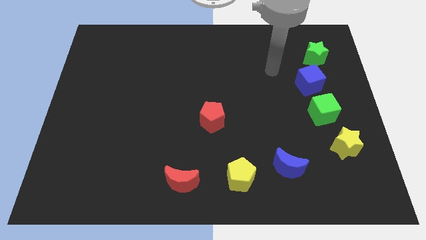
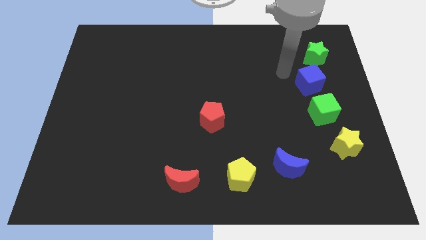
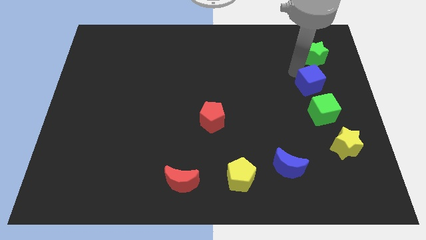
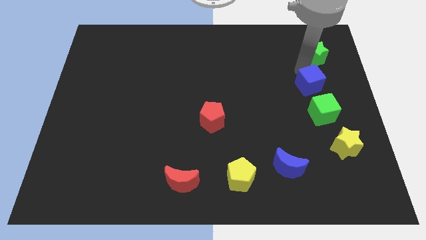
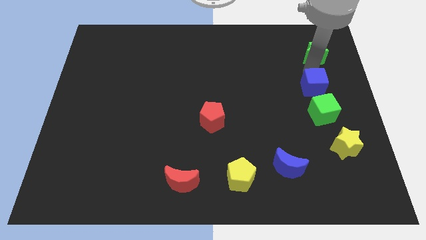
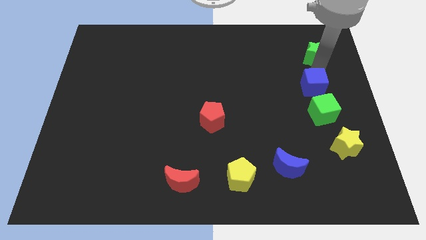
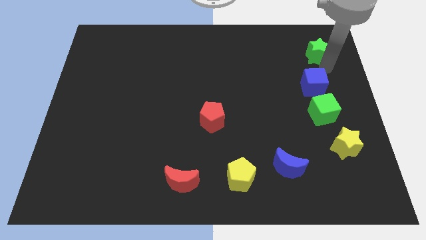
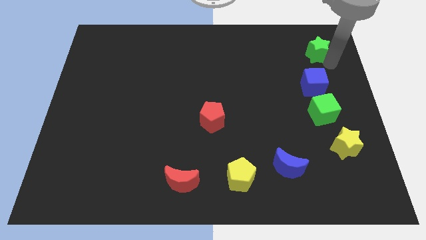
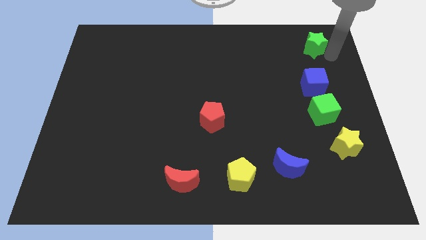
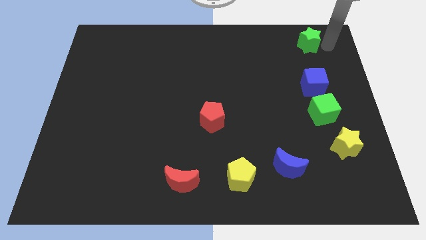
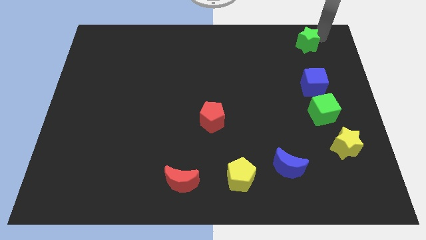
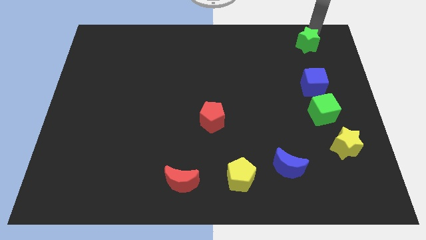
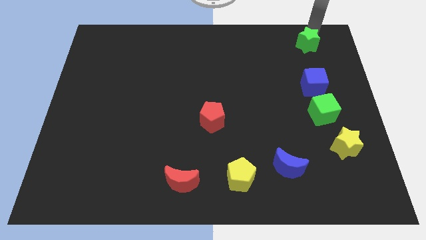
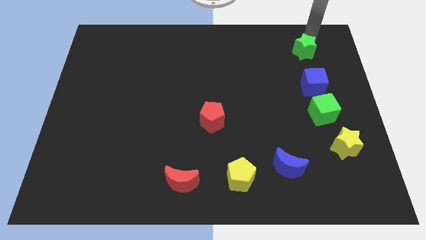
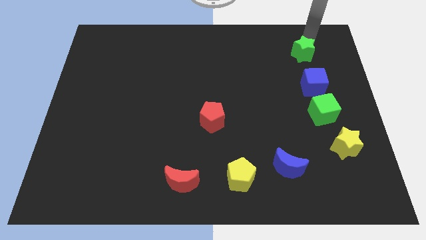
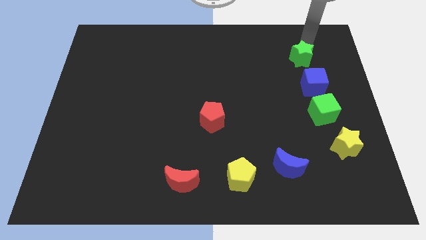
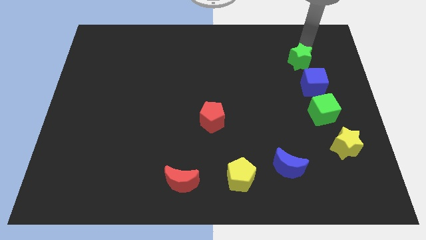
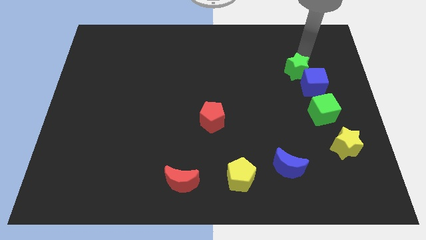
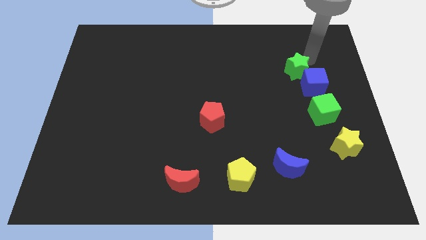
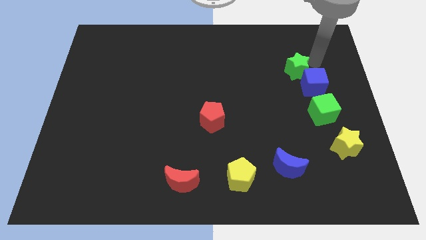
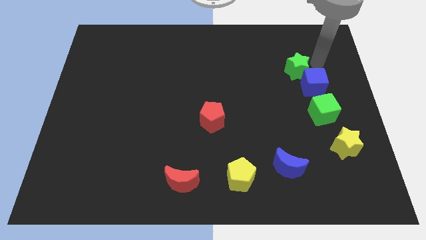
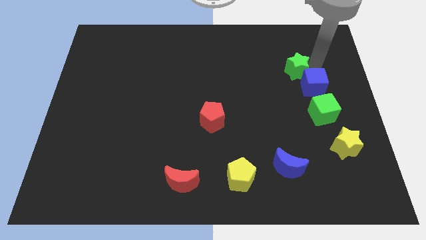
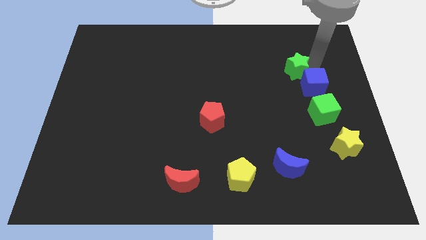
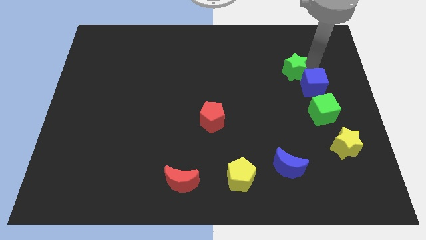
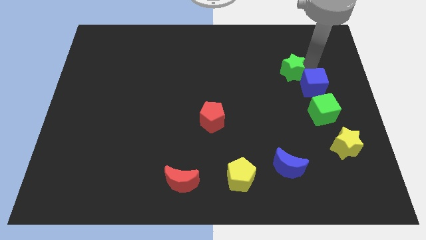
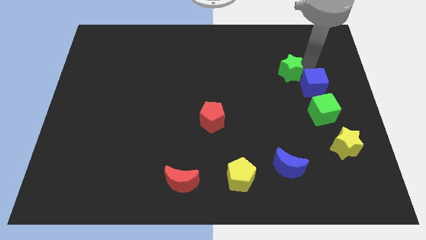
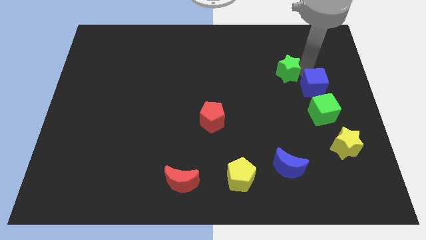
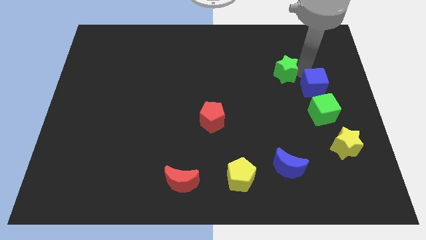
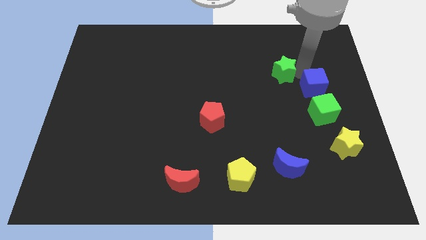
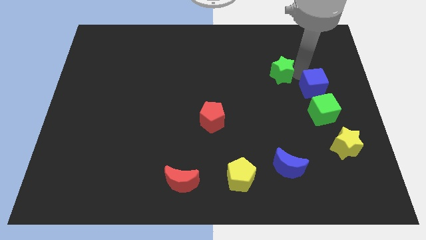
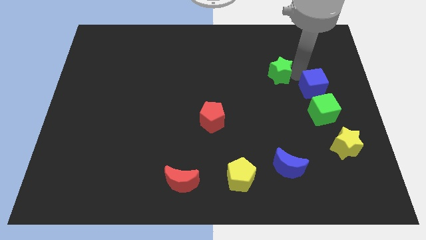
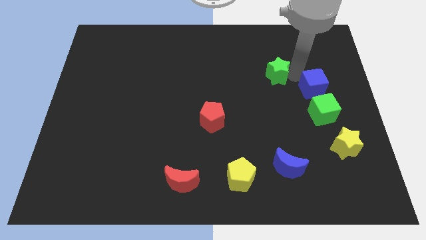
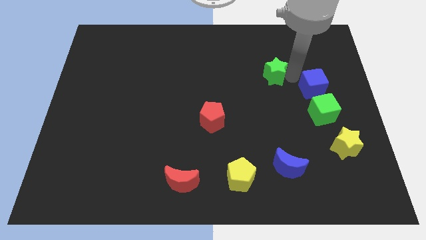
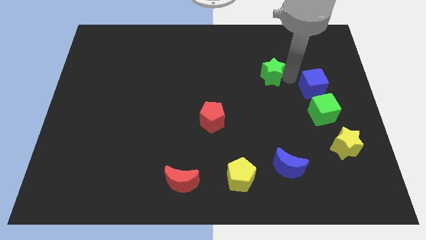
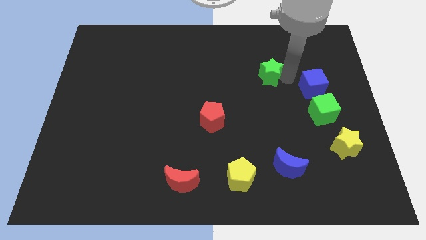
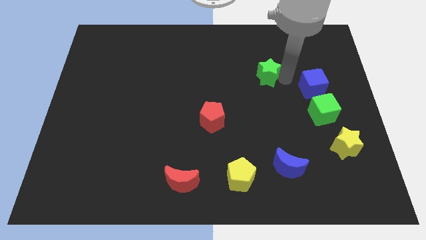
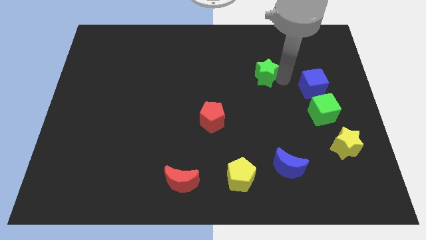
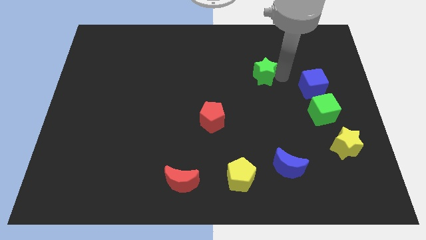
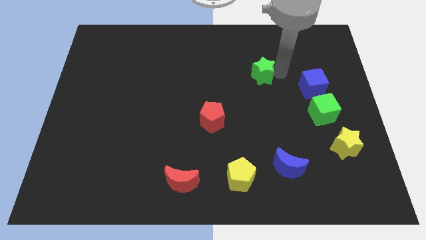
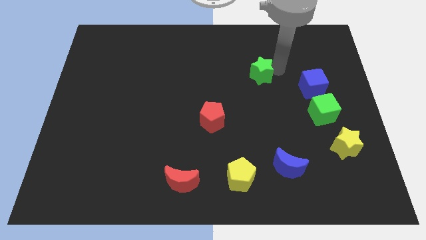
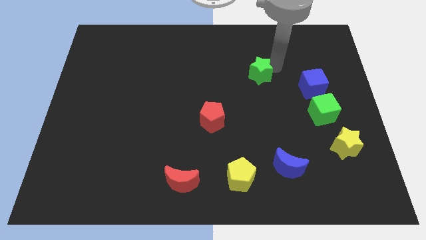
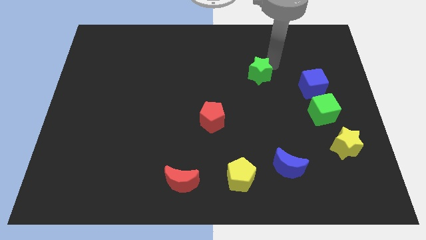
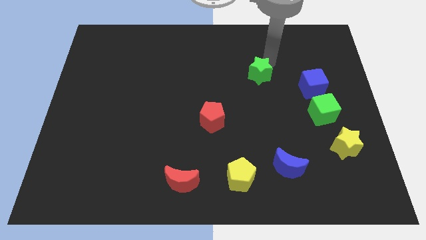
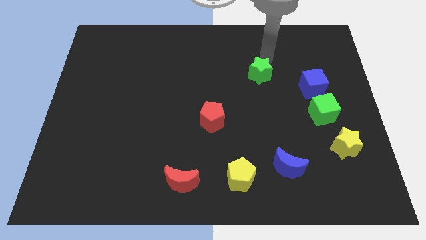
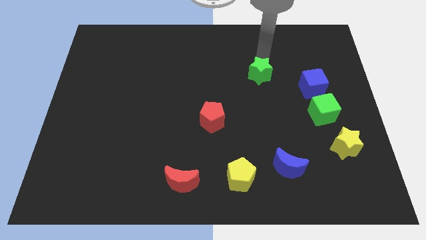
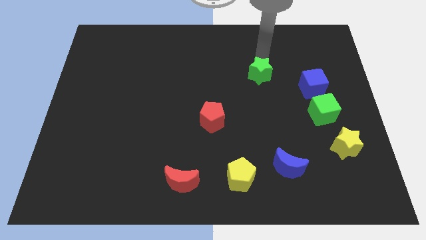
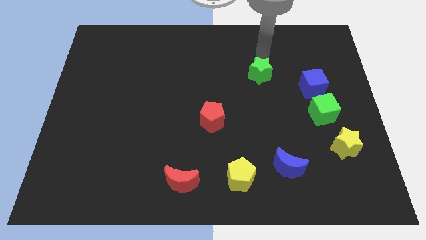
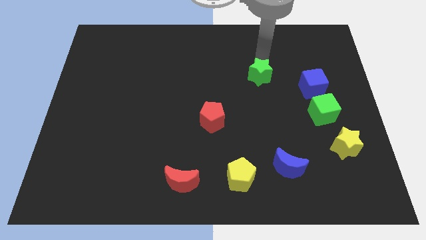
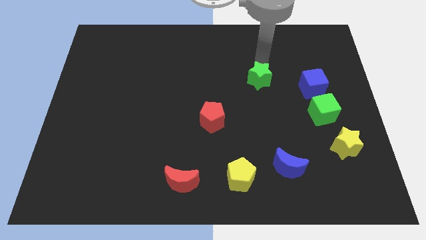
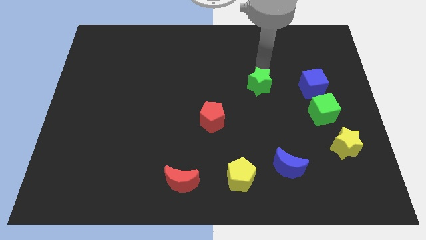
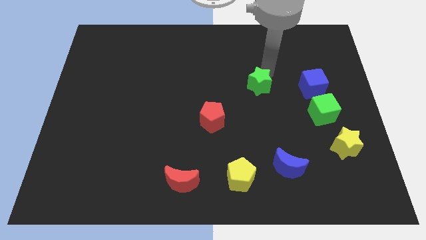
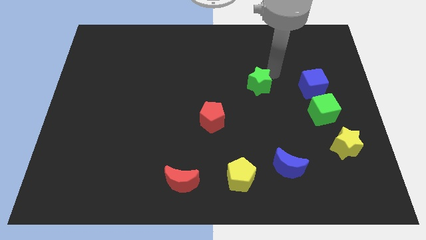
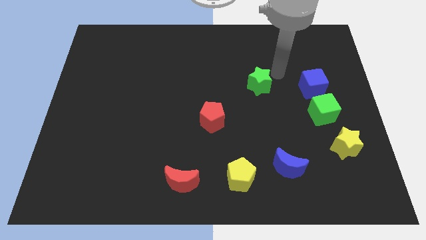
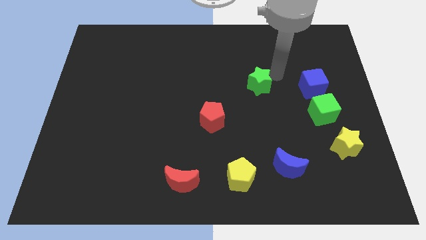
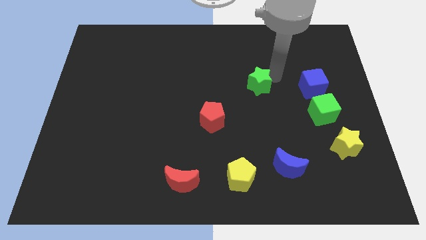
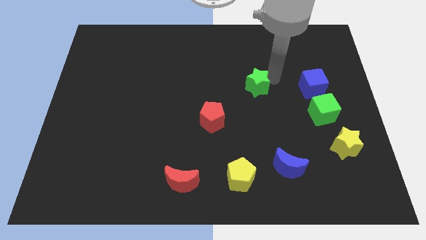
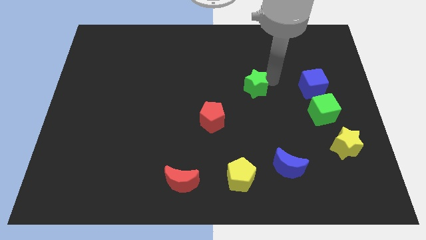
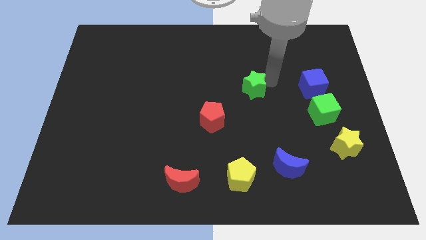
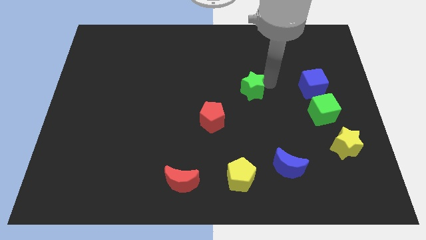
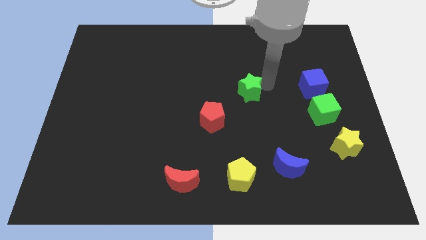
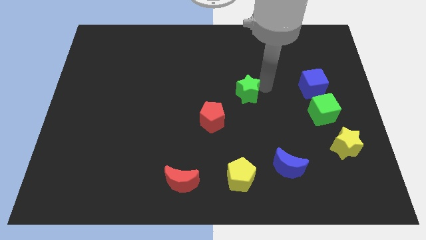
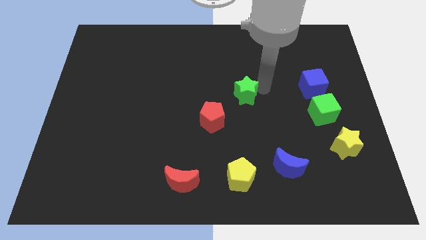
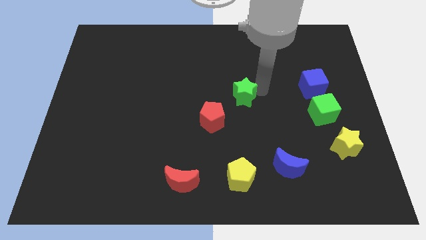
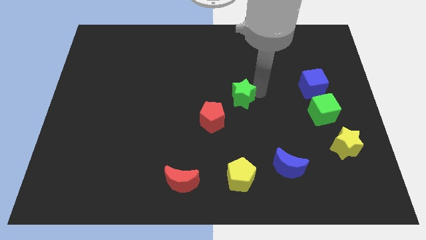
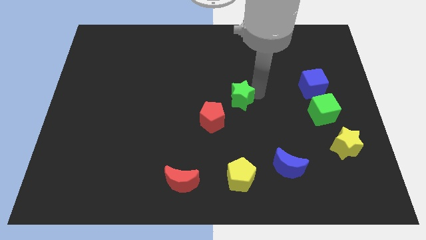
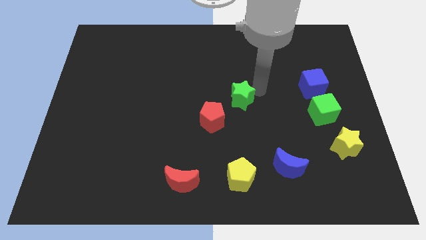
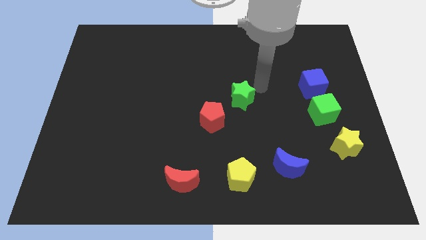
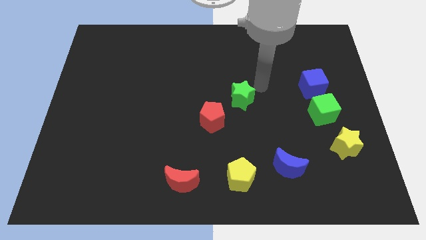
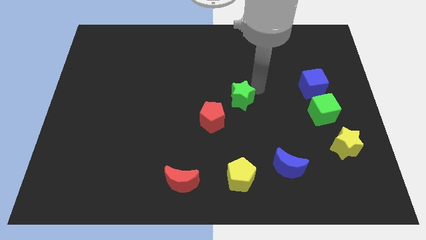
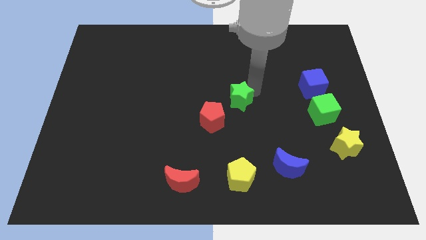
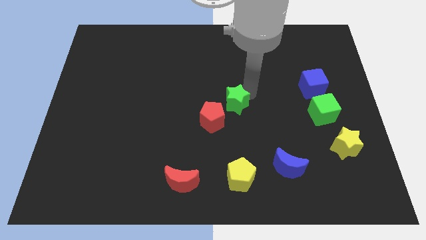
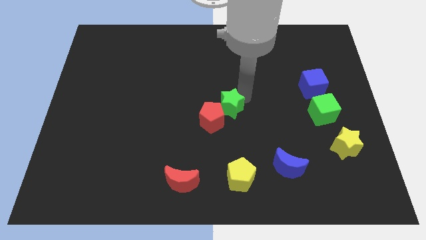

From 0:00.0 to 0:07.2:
push the green star next to the red pentagon
